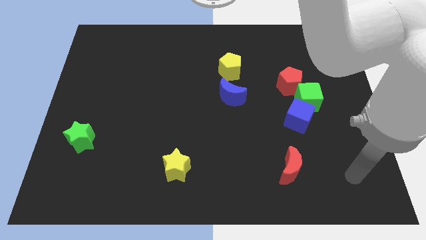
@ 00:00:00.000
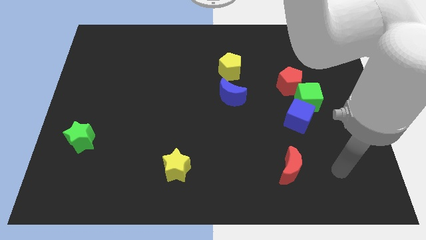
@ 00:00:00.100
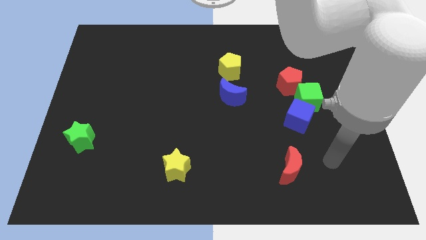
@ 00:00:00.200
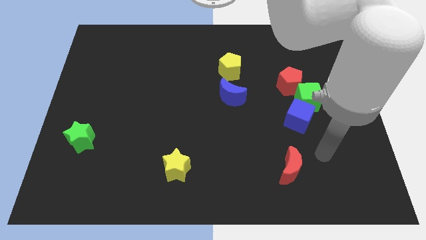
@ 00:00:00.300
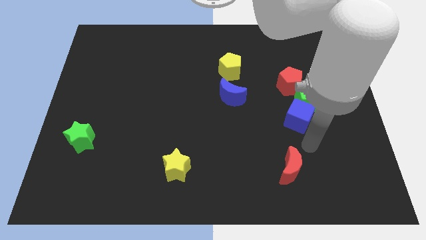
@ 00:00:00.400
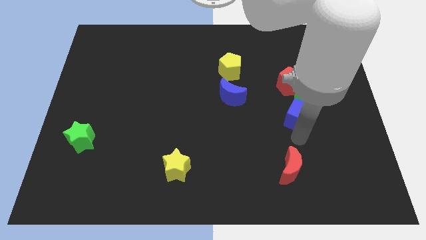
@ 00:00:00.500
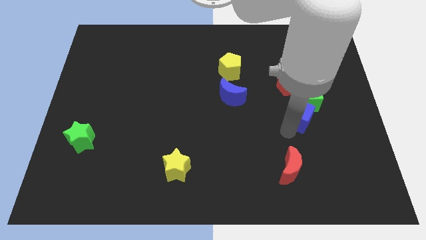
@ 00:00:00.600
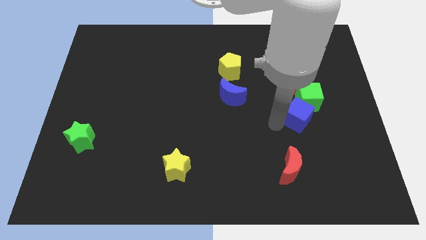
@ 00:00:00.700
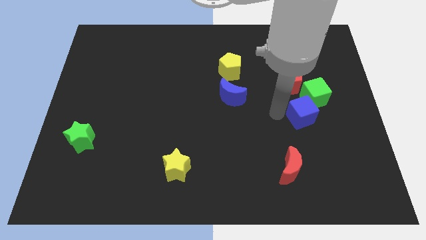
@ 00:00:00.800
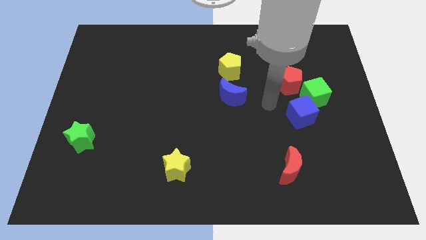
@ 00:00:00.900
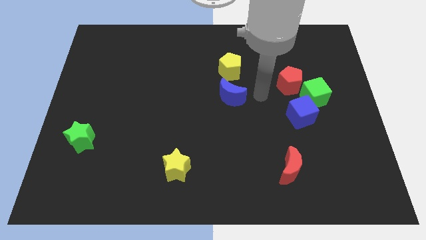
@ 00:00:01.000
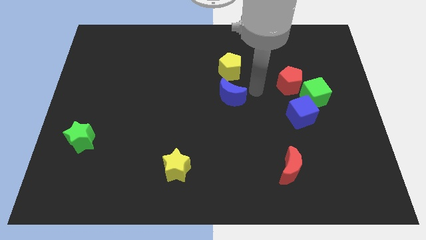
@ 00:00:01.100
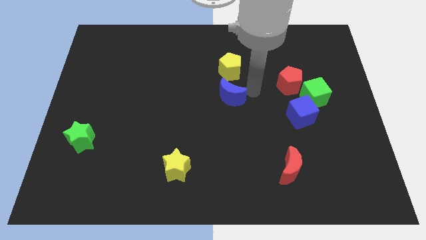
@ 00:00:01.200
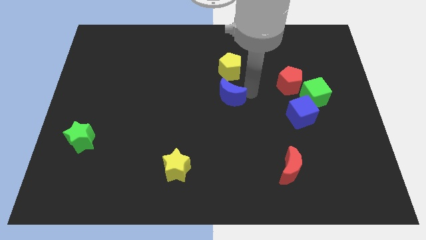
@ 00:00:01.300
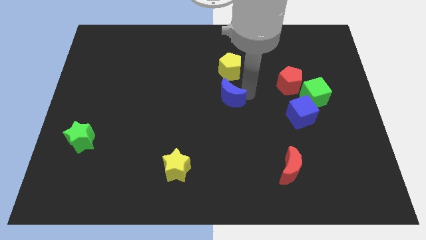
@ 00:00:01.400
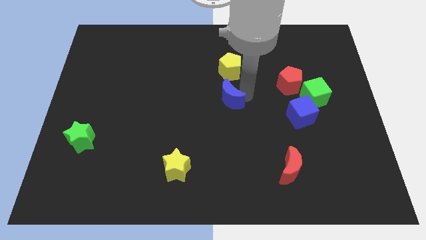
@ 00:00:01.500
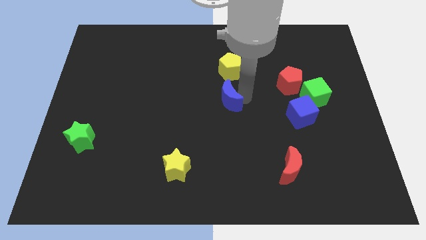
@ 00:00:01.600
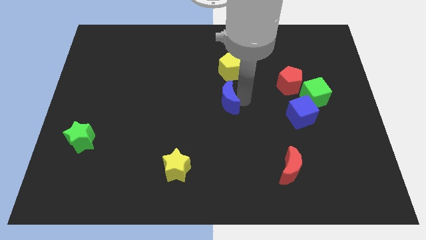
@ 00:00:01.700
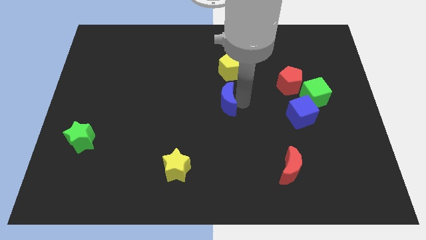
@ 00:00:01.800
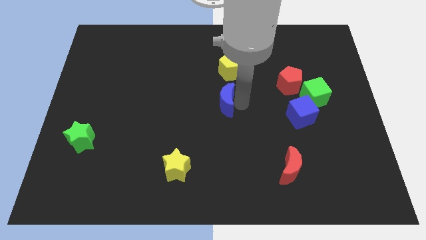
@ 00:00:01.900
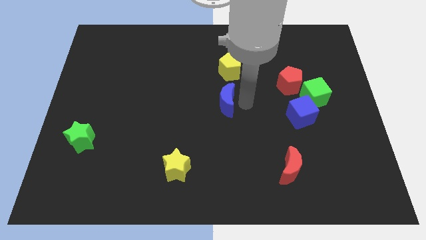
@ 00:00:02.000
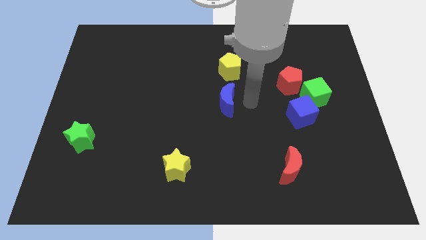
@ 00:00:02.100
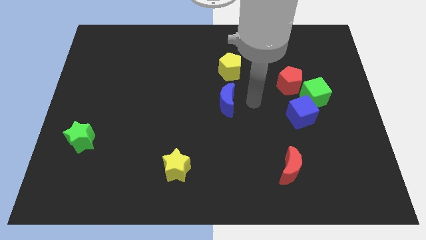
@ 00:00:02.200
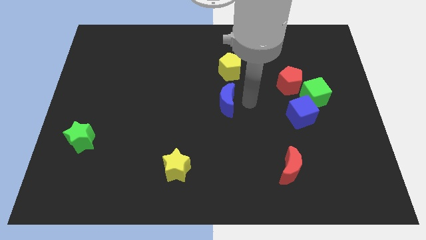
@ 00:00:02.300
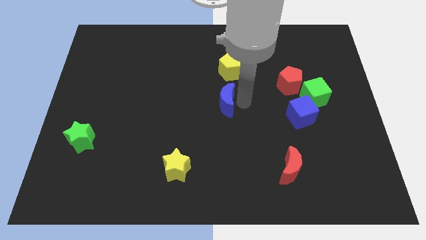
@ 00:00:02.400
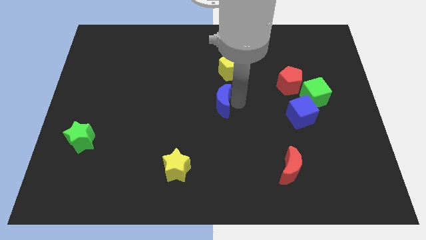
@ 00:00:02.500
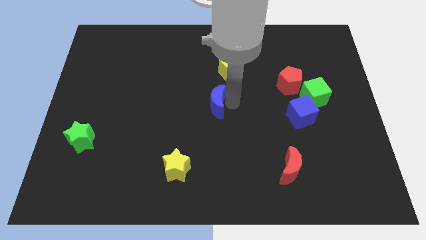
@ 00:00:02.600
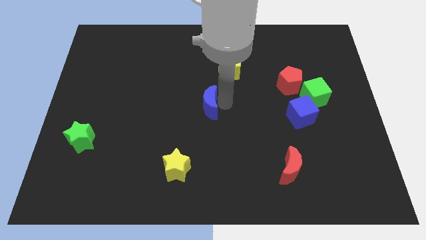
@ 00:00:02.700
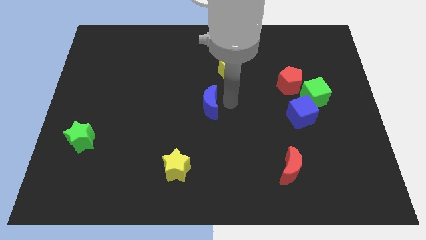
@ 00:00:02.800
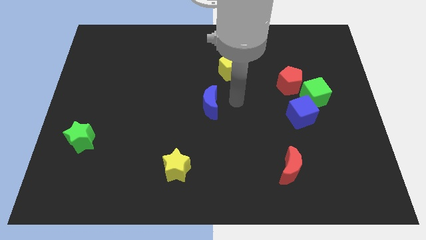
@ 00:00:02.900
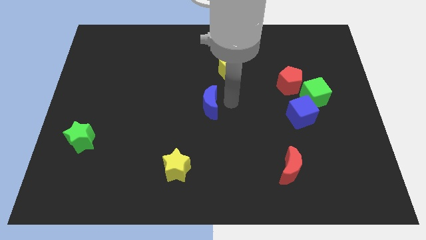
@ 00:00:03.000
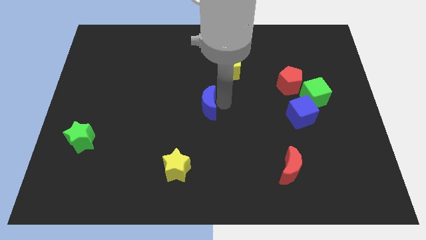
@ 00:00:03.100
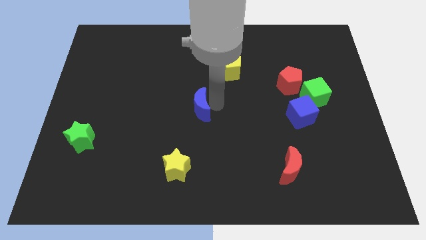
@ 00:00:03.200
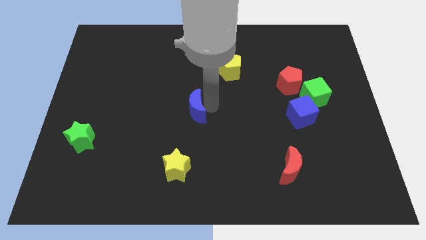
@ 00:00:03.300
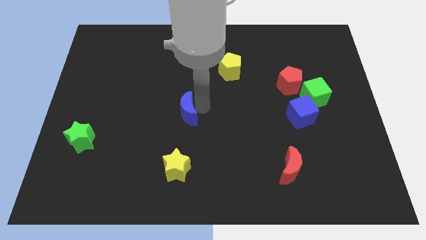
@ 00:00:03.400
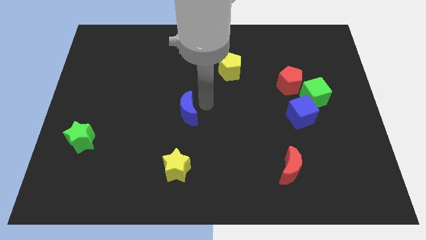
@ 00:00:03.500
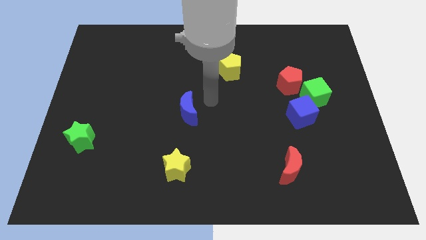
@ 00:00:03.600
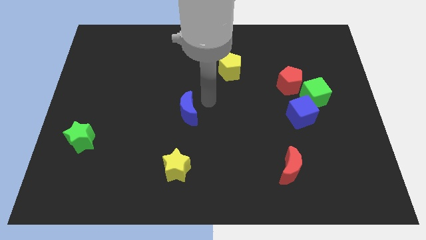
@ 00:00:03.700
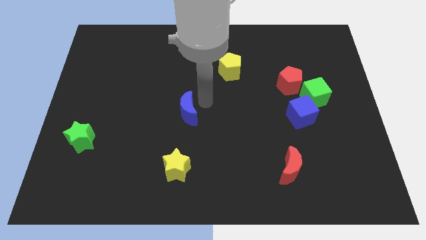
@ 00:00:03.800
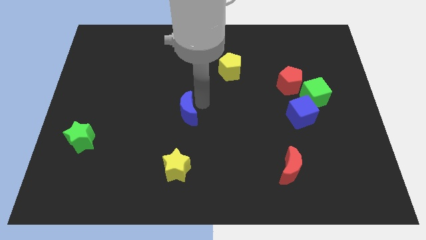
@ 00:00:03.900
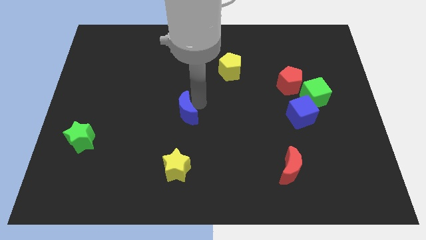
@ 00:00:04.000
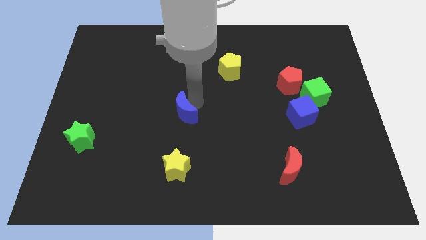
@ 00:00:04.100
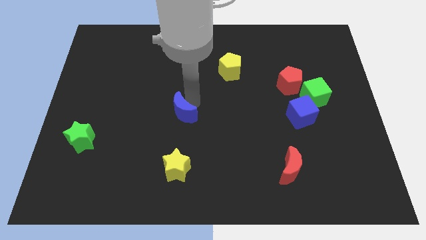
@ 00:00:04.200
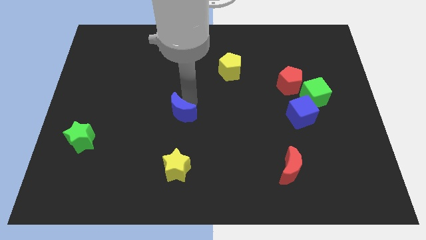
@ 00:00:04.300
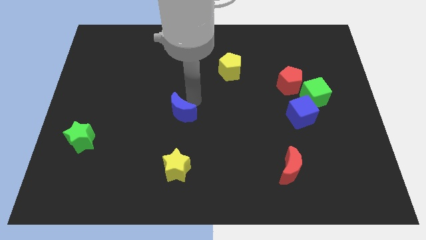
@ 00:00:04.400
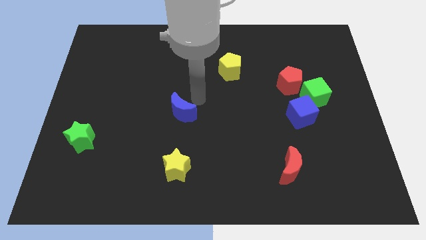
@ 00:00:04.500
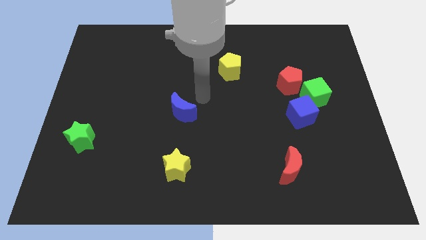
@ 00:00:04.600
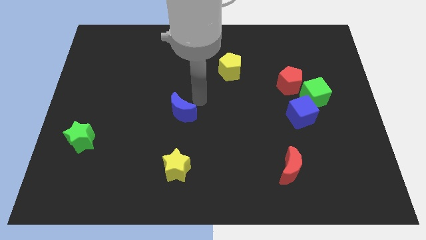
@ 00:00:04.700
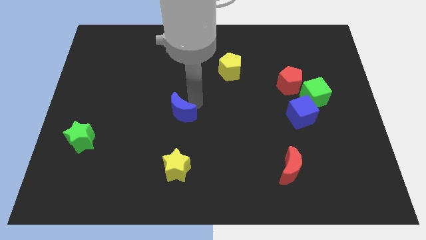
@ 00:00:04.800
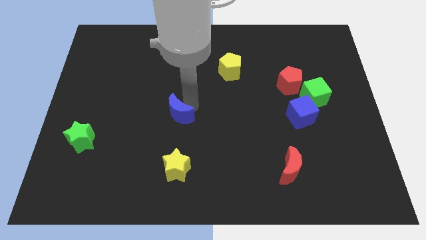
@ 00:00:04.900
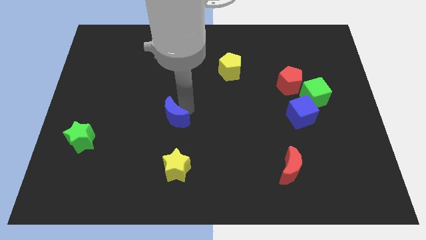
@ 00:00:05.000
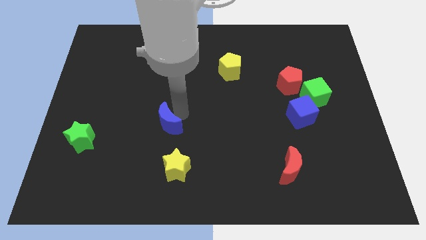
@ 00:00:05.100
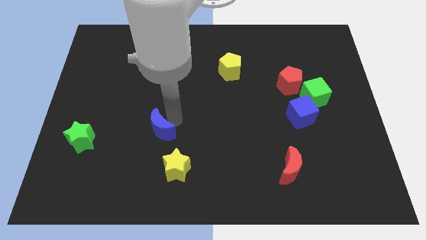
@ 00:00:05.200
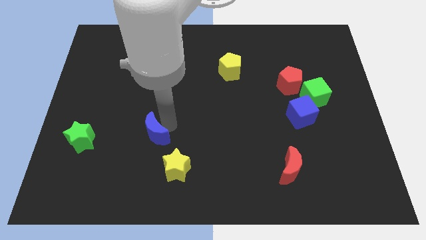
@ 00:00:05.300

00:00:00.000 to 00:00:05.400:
put the blue moon to the right side of the green star

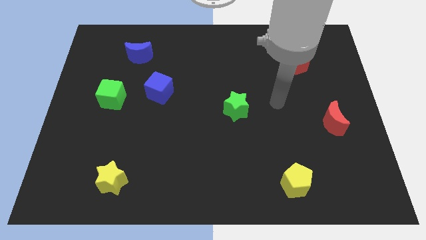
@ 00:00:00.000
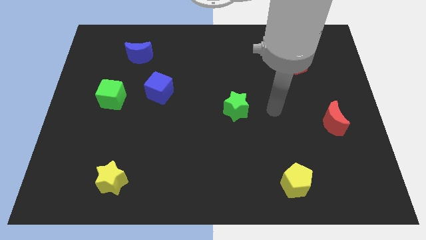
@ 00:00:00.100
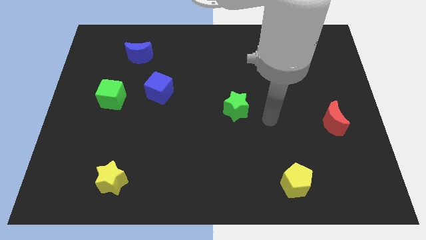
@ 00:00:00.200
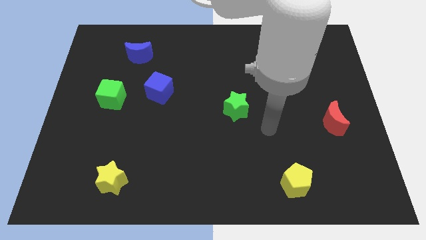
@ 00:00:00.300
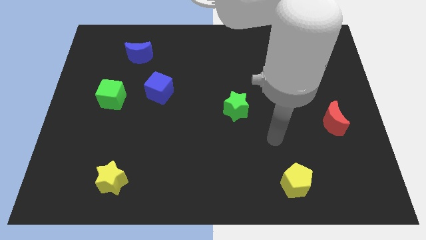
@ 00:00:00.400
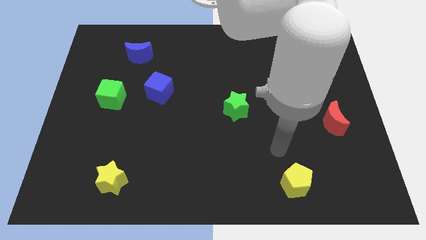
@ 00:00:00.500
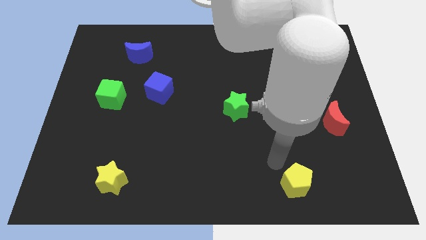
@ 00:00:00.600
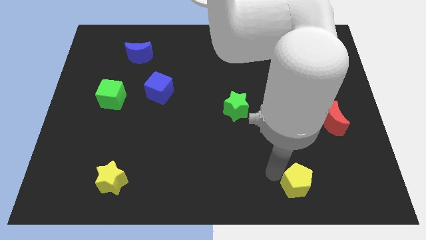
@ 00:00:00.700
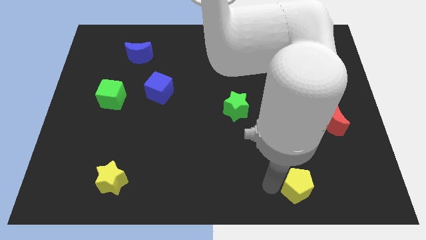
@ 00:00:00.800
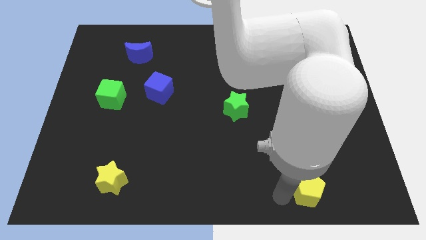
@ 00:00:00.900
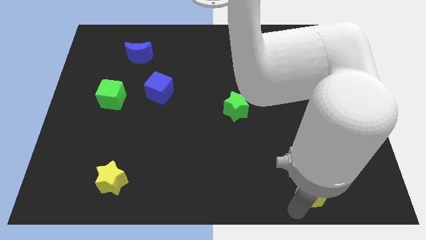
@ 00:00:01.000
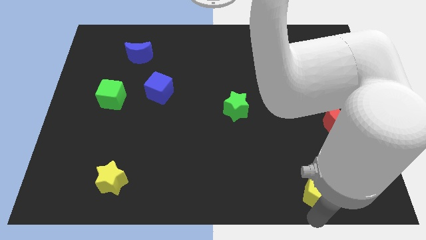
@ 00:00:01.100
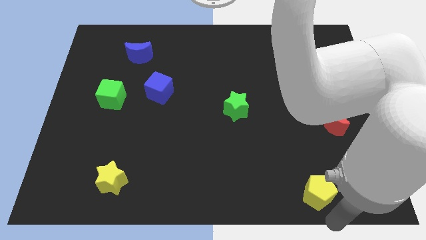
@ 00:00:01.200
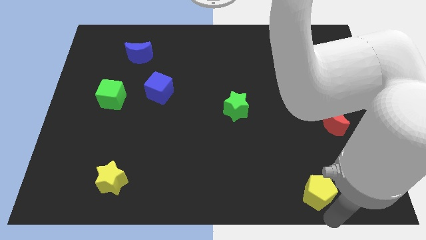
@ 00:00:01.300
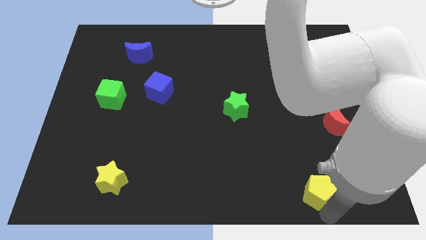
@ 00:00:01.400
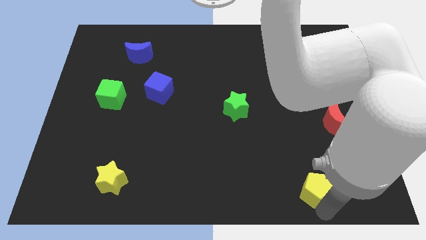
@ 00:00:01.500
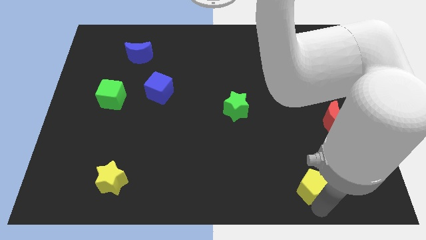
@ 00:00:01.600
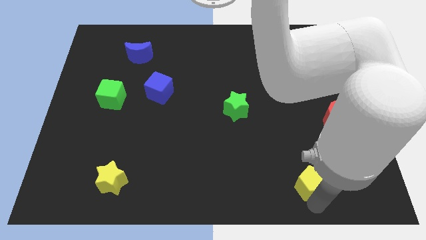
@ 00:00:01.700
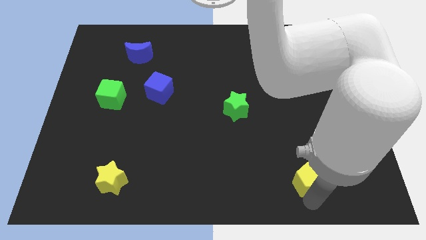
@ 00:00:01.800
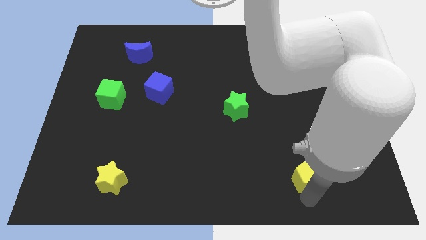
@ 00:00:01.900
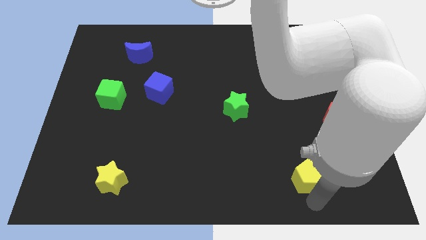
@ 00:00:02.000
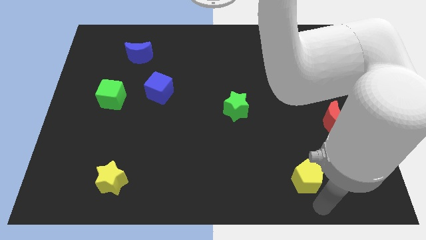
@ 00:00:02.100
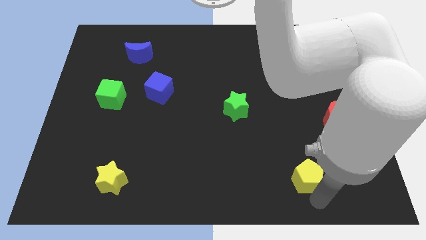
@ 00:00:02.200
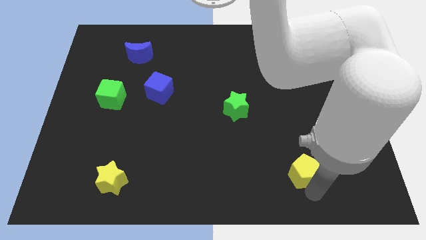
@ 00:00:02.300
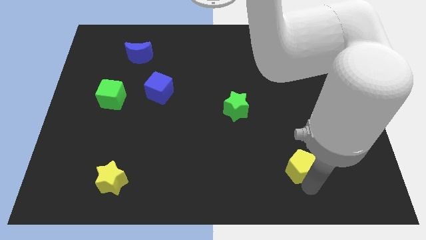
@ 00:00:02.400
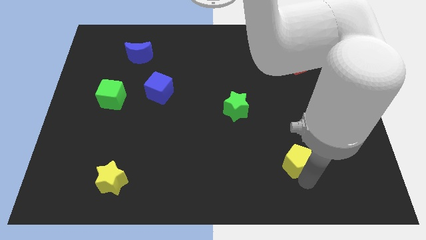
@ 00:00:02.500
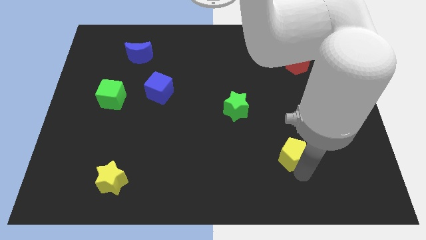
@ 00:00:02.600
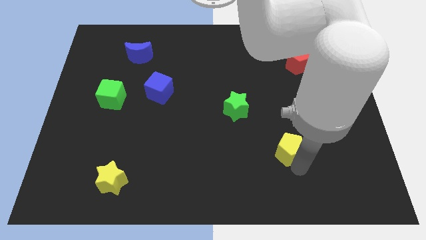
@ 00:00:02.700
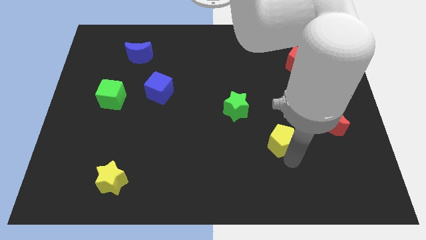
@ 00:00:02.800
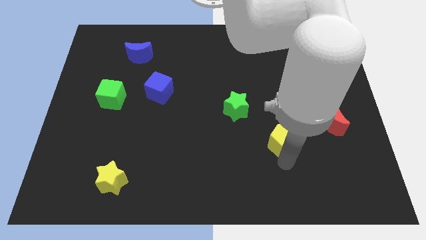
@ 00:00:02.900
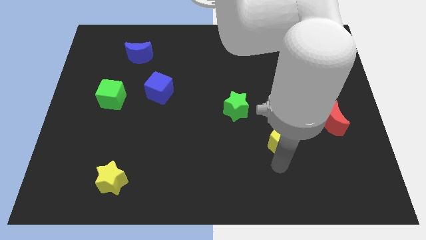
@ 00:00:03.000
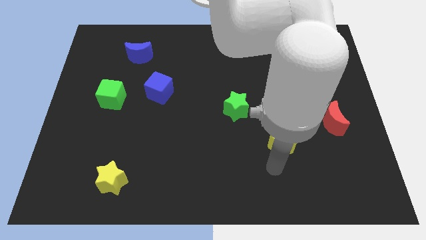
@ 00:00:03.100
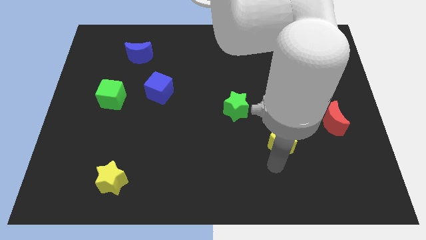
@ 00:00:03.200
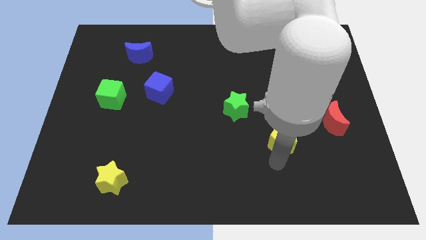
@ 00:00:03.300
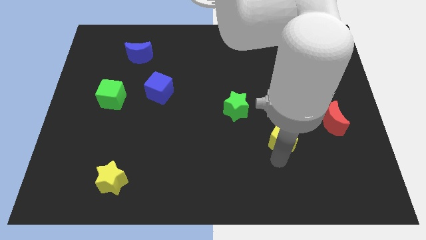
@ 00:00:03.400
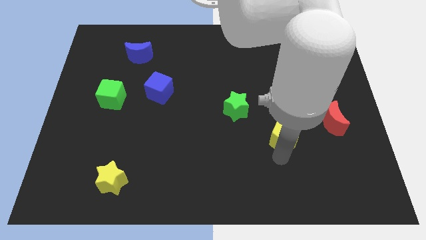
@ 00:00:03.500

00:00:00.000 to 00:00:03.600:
move the yellow pentagon to the left side of the red moon
